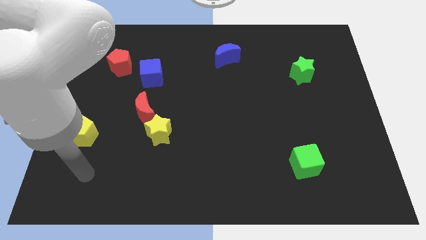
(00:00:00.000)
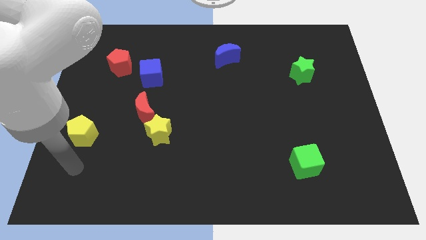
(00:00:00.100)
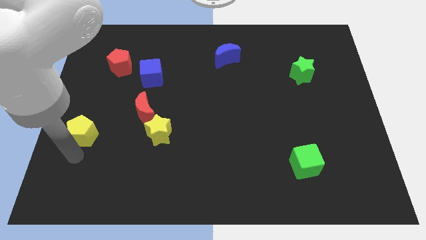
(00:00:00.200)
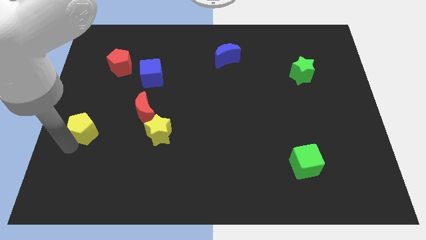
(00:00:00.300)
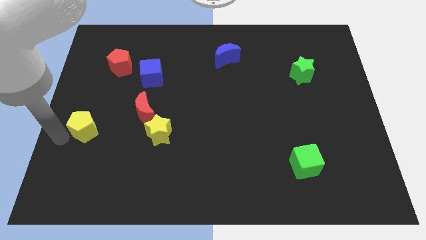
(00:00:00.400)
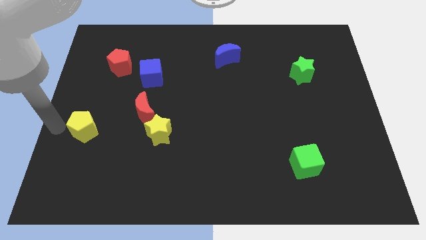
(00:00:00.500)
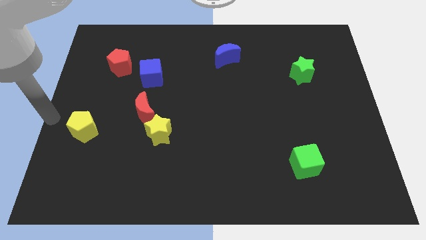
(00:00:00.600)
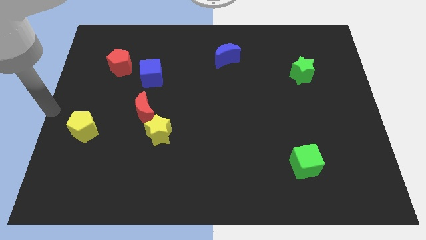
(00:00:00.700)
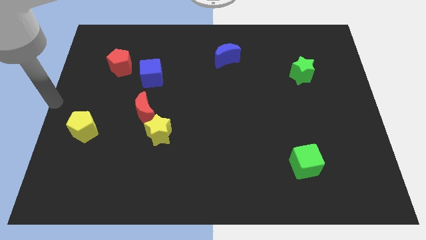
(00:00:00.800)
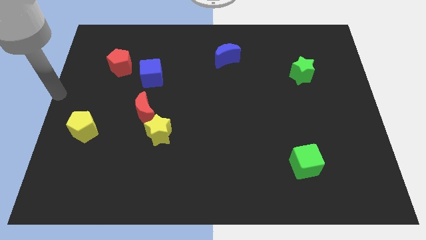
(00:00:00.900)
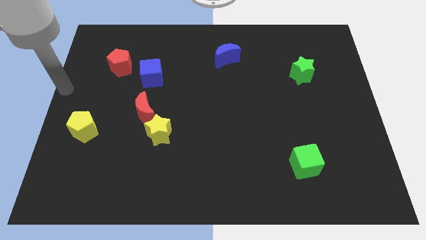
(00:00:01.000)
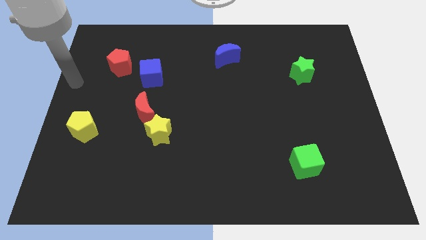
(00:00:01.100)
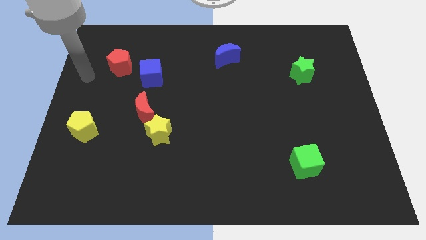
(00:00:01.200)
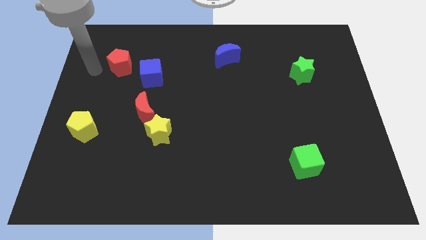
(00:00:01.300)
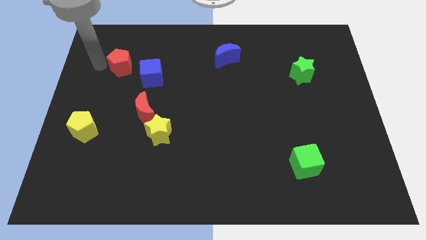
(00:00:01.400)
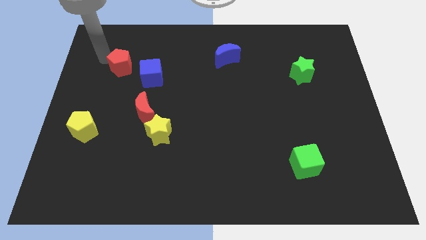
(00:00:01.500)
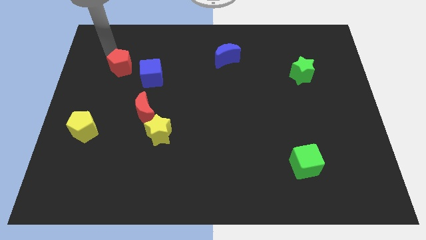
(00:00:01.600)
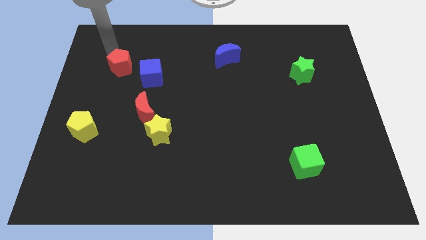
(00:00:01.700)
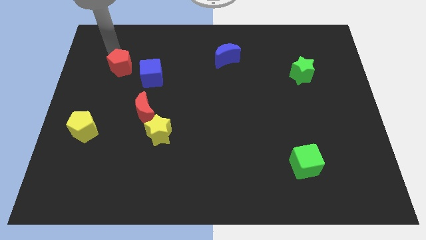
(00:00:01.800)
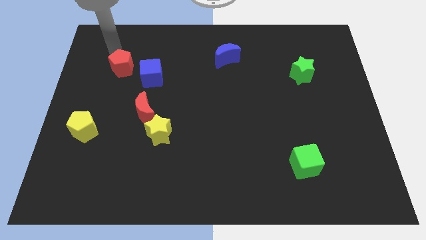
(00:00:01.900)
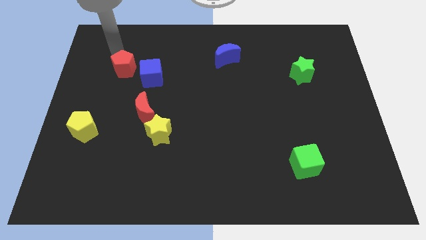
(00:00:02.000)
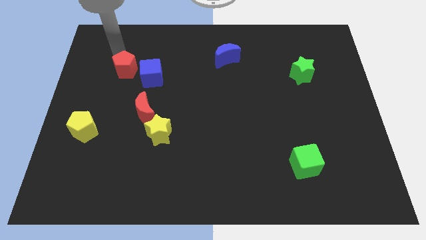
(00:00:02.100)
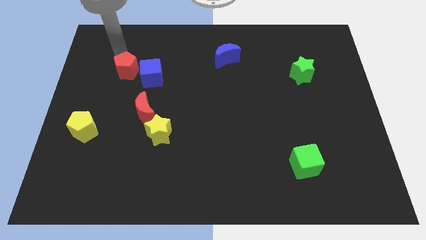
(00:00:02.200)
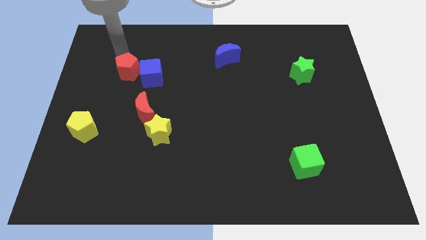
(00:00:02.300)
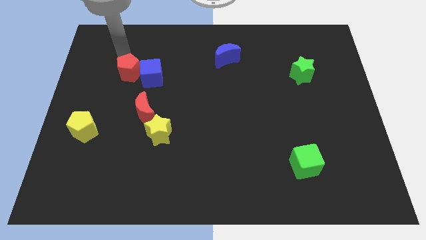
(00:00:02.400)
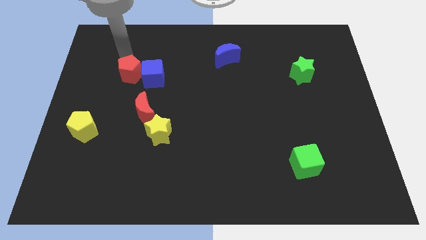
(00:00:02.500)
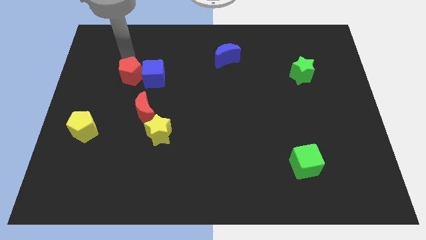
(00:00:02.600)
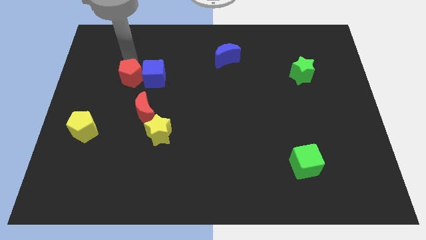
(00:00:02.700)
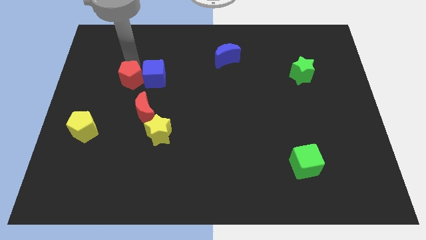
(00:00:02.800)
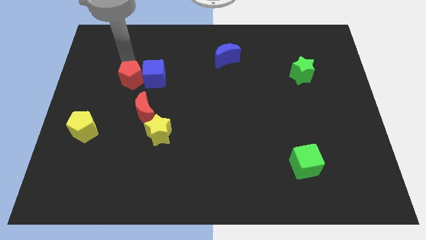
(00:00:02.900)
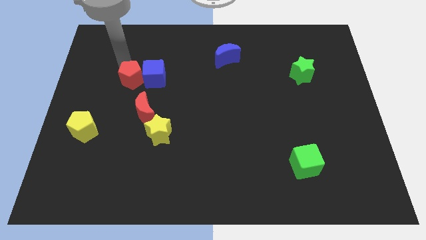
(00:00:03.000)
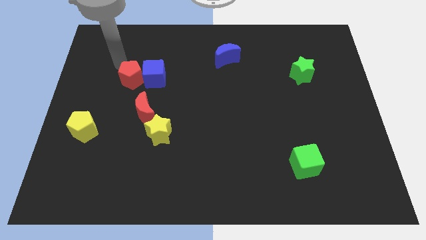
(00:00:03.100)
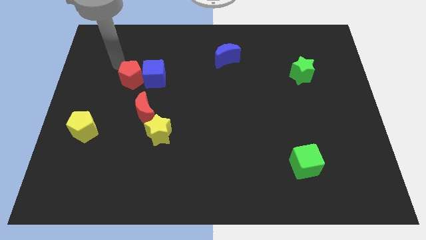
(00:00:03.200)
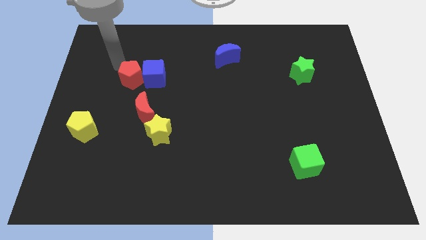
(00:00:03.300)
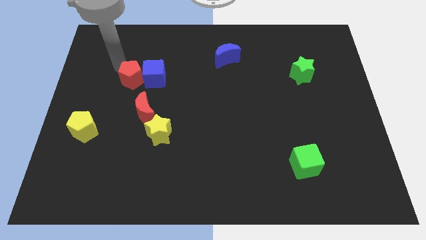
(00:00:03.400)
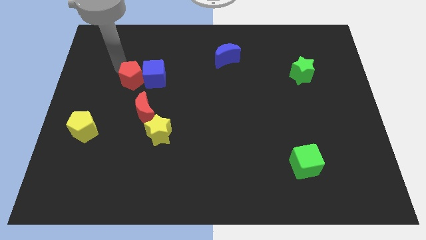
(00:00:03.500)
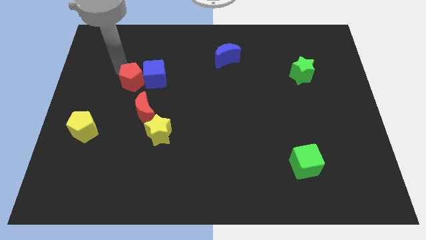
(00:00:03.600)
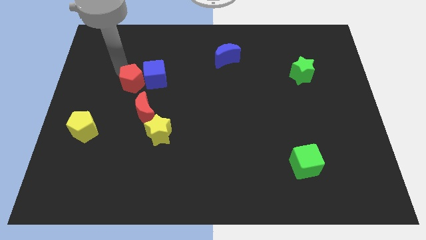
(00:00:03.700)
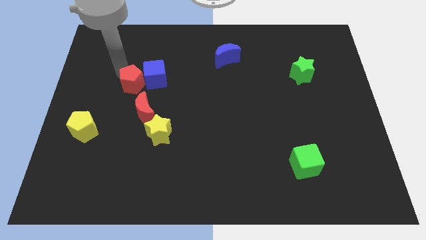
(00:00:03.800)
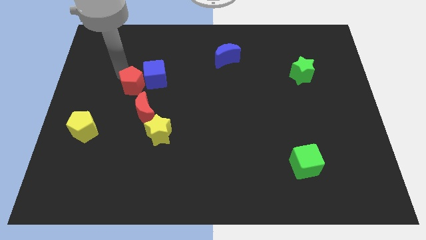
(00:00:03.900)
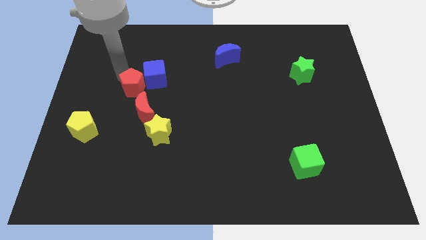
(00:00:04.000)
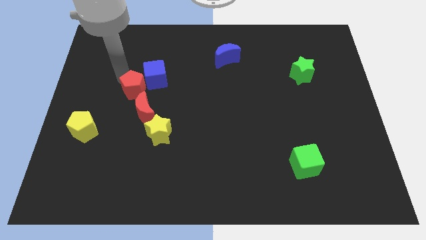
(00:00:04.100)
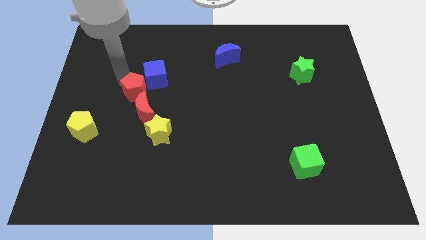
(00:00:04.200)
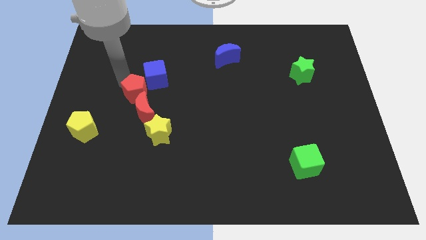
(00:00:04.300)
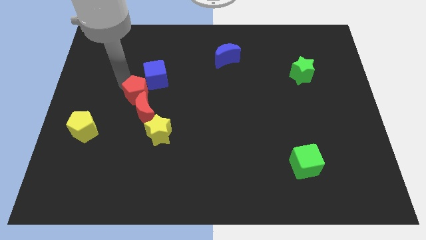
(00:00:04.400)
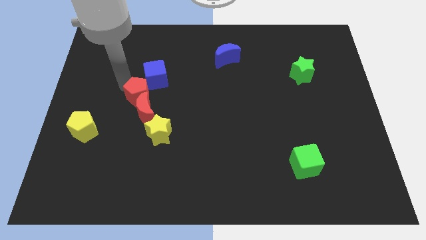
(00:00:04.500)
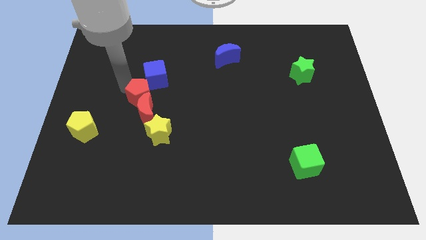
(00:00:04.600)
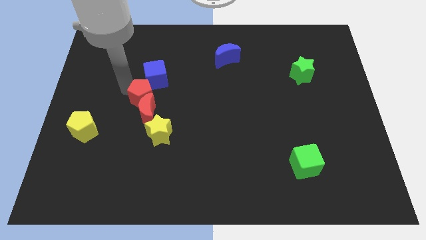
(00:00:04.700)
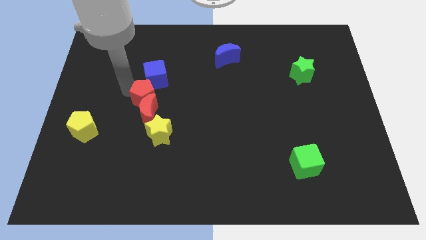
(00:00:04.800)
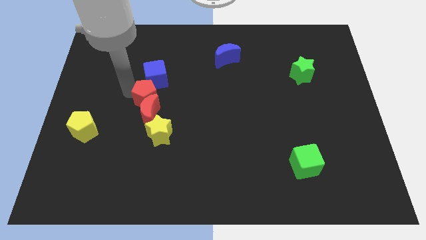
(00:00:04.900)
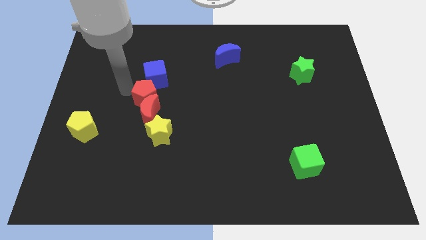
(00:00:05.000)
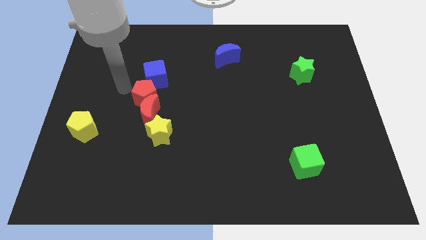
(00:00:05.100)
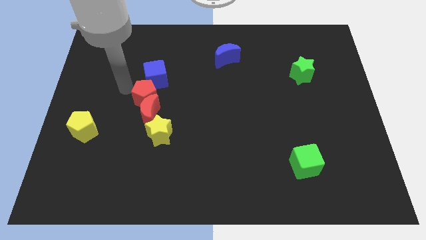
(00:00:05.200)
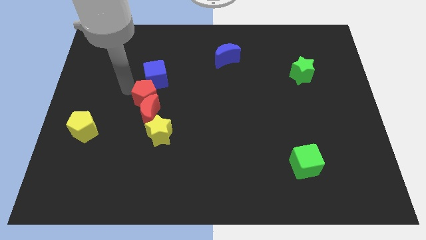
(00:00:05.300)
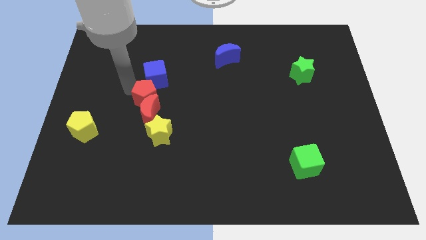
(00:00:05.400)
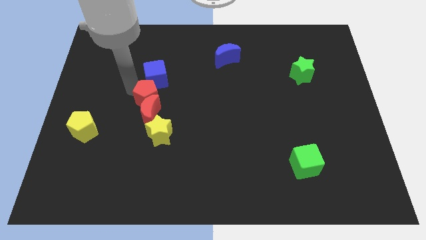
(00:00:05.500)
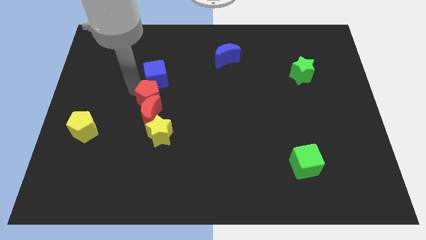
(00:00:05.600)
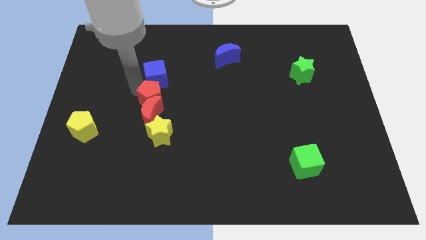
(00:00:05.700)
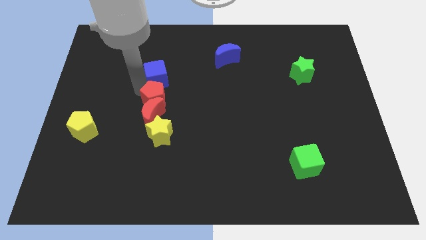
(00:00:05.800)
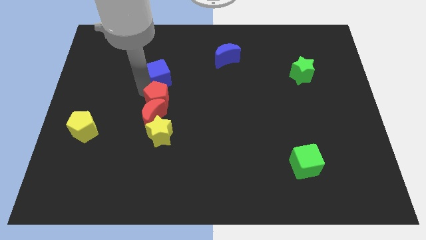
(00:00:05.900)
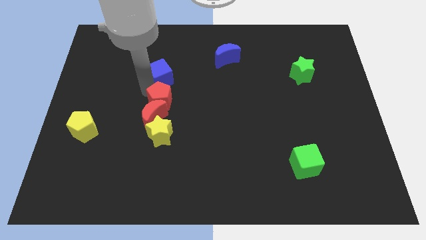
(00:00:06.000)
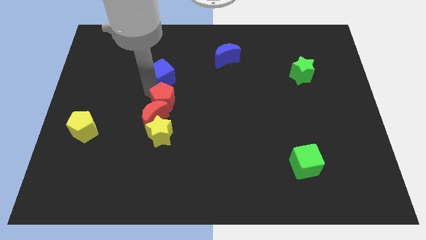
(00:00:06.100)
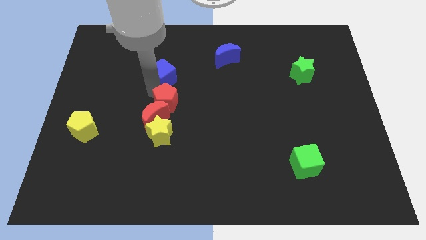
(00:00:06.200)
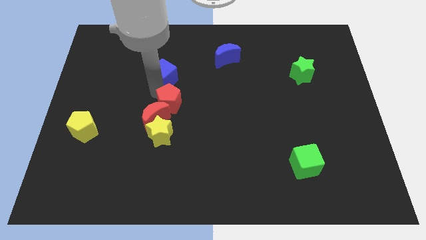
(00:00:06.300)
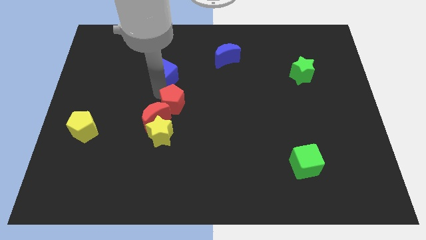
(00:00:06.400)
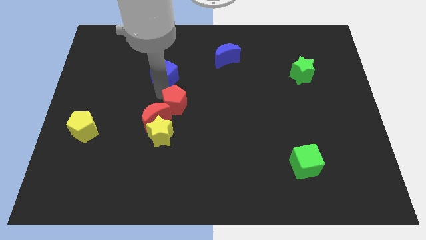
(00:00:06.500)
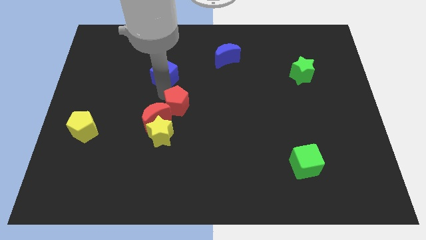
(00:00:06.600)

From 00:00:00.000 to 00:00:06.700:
push the red pentagon down and right

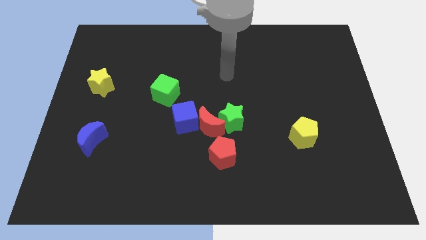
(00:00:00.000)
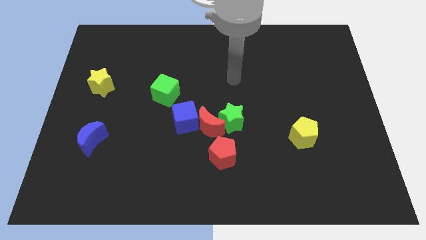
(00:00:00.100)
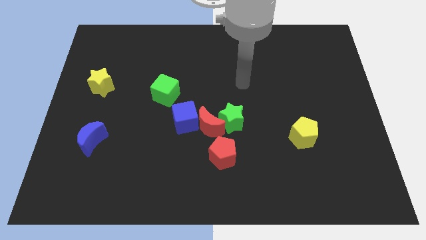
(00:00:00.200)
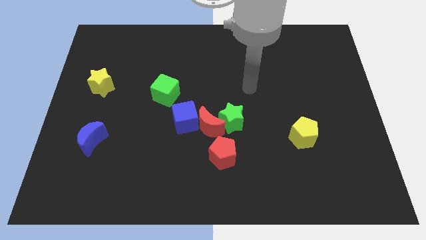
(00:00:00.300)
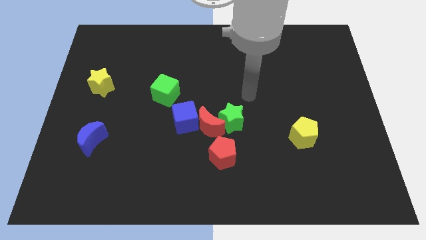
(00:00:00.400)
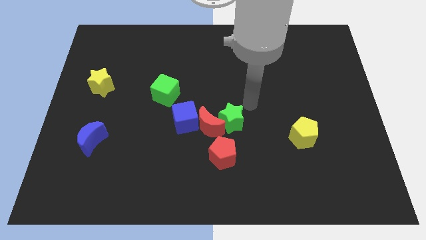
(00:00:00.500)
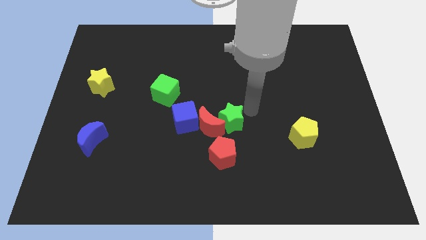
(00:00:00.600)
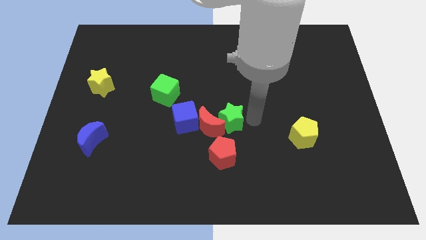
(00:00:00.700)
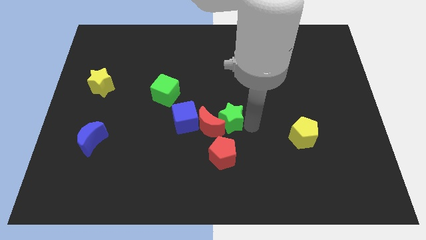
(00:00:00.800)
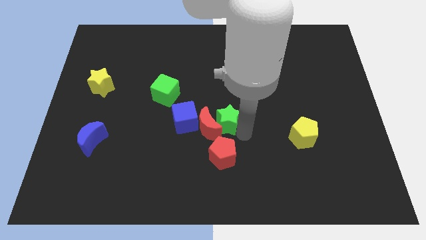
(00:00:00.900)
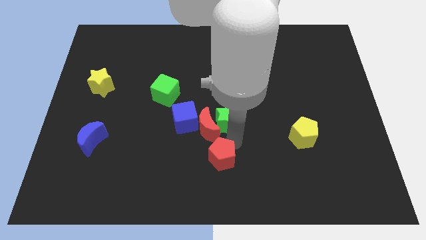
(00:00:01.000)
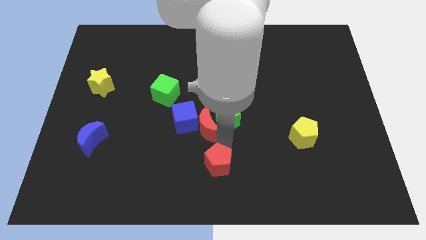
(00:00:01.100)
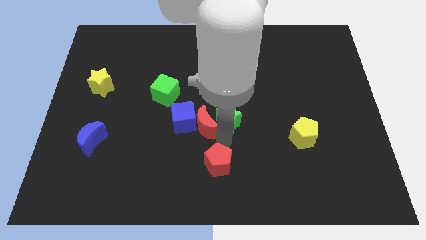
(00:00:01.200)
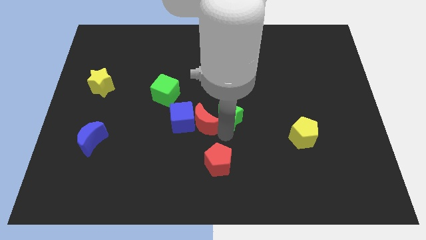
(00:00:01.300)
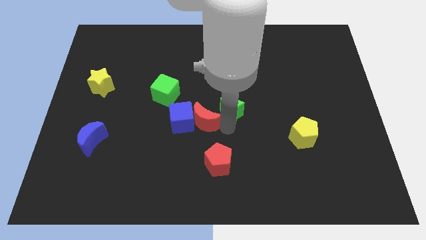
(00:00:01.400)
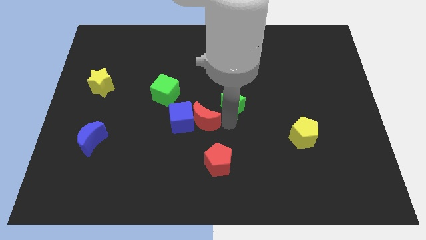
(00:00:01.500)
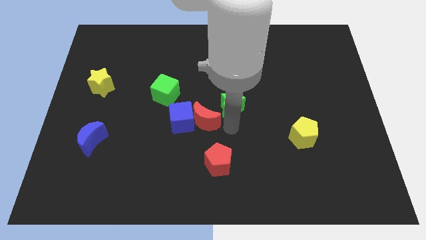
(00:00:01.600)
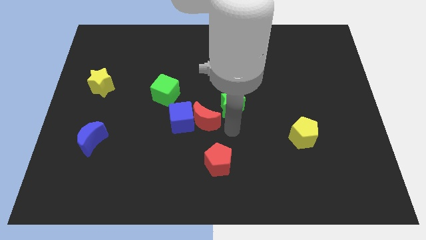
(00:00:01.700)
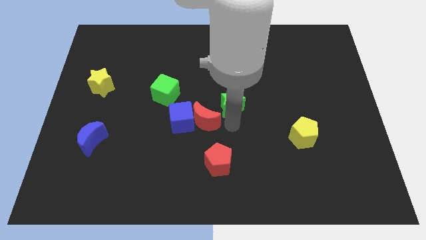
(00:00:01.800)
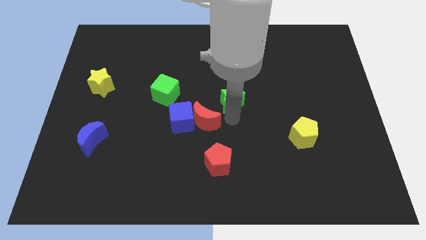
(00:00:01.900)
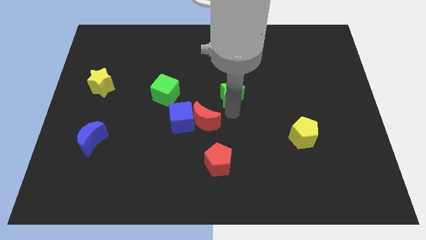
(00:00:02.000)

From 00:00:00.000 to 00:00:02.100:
move the green star up somewhat
